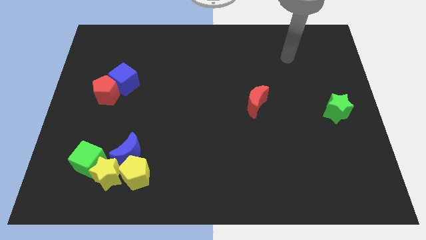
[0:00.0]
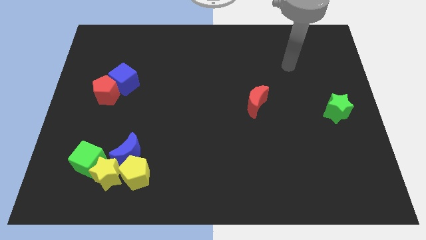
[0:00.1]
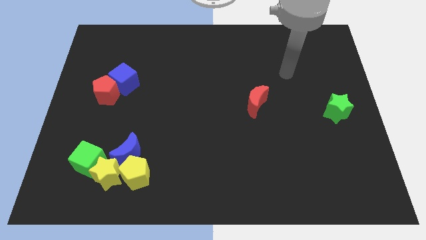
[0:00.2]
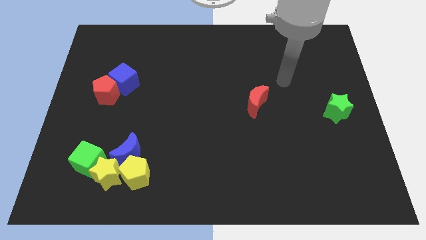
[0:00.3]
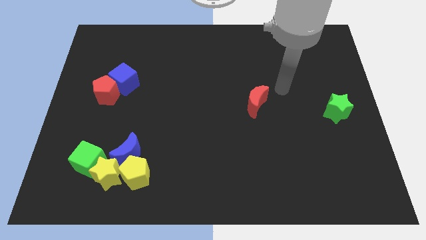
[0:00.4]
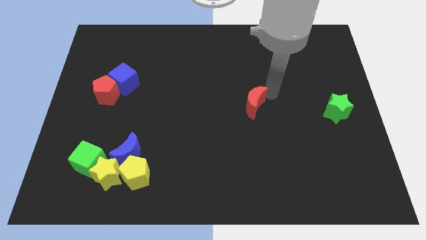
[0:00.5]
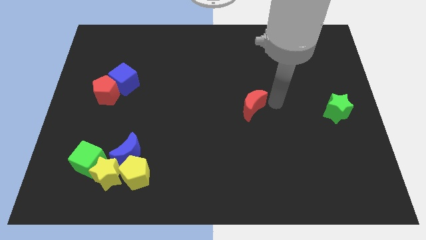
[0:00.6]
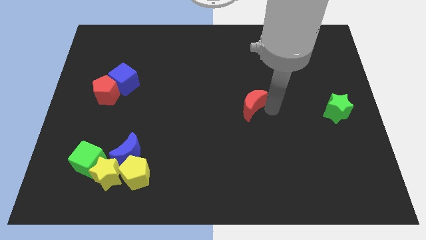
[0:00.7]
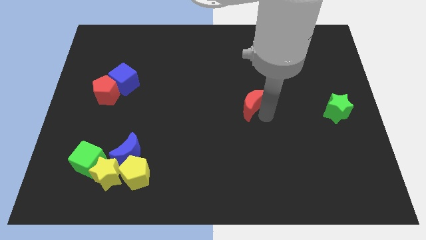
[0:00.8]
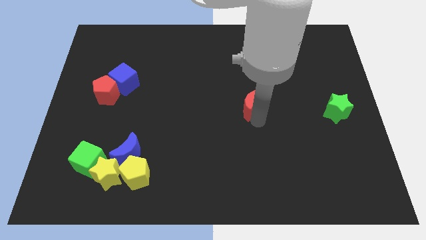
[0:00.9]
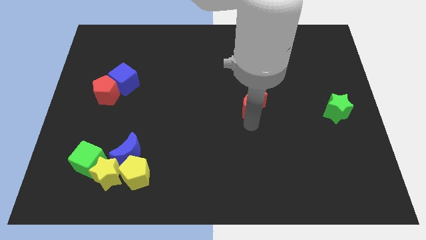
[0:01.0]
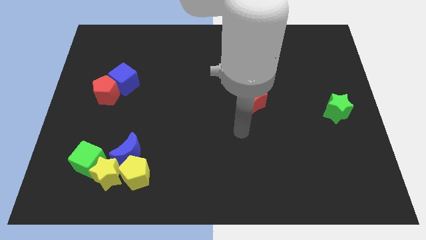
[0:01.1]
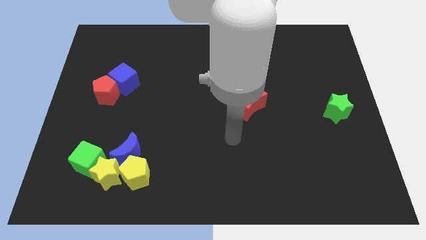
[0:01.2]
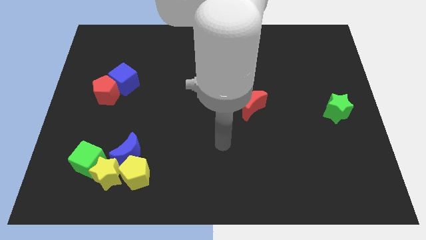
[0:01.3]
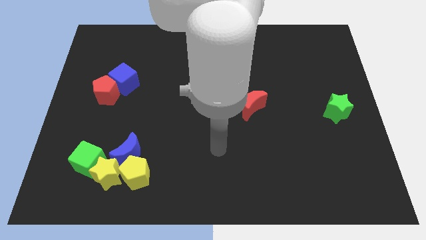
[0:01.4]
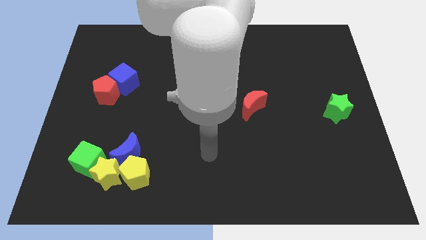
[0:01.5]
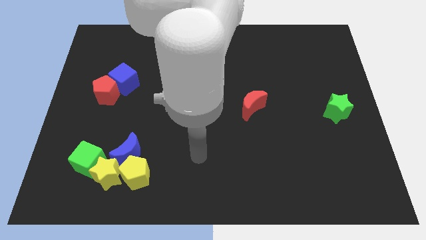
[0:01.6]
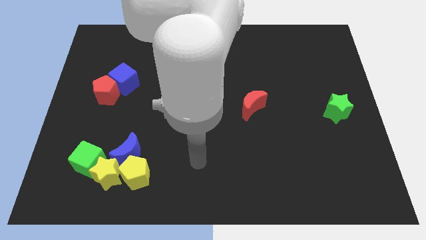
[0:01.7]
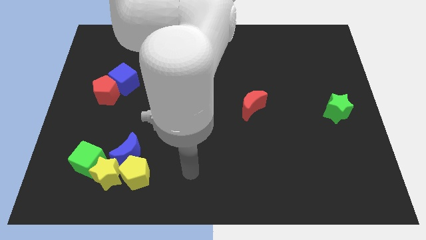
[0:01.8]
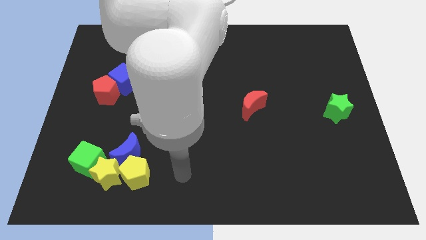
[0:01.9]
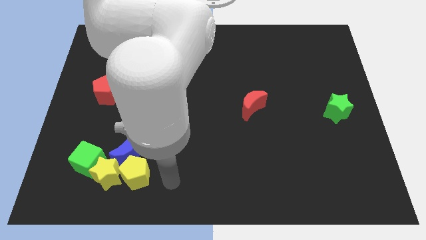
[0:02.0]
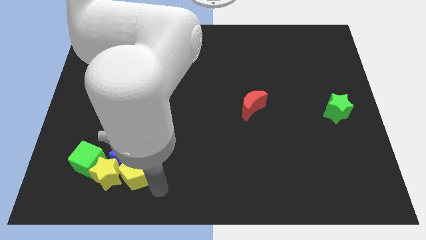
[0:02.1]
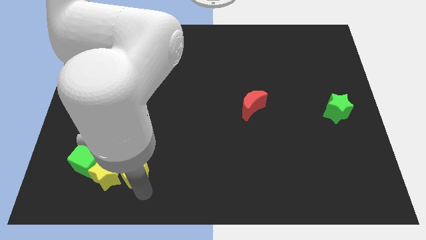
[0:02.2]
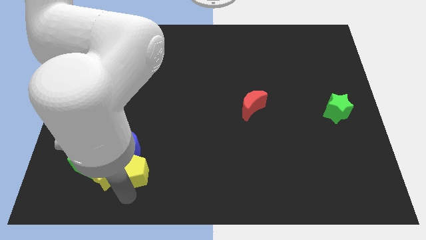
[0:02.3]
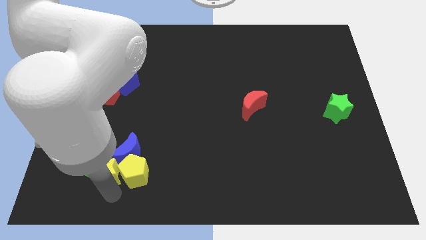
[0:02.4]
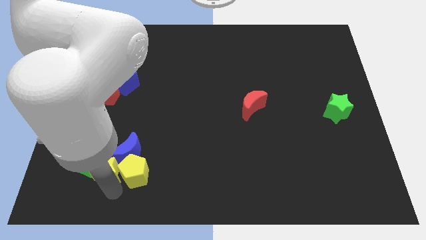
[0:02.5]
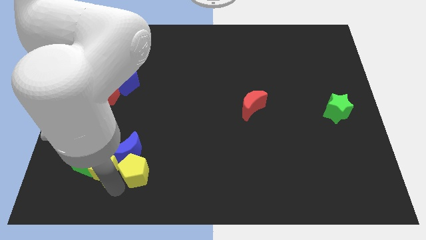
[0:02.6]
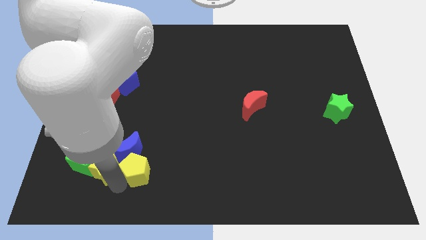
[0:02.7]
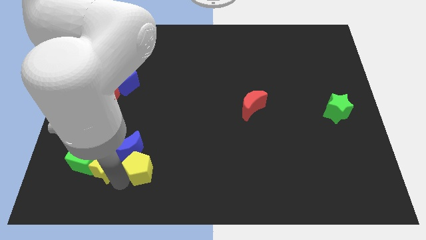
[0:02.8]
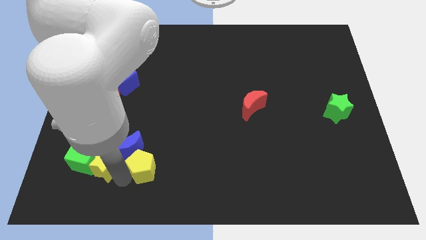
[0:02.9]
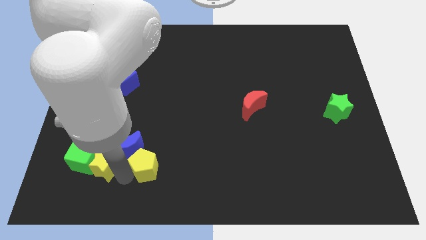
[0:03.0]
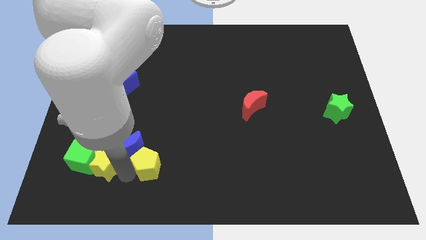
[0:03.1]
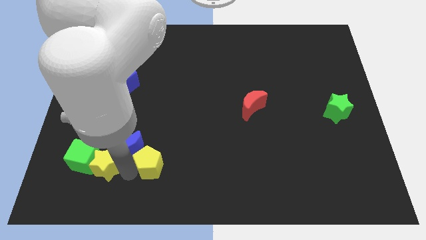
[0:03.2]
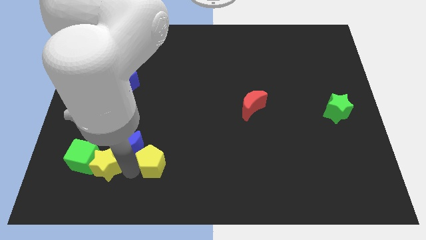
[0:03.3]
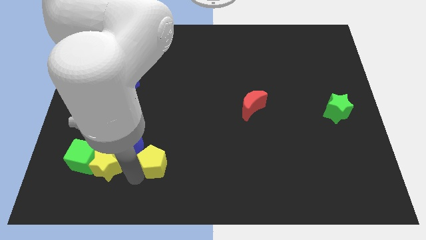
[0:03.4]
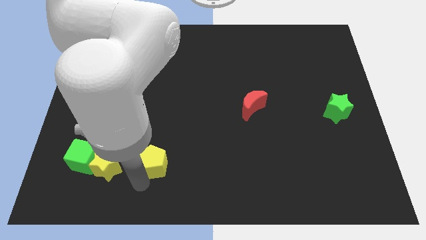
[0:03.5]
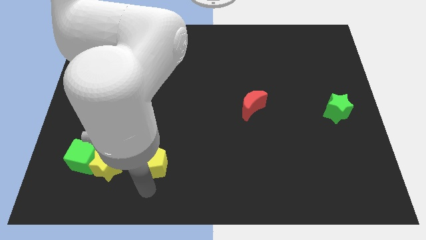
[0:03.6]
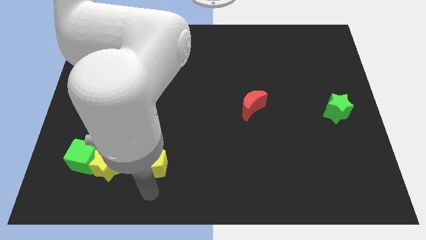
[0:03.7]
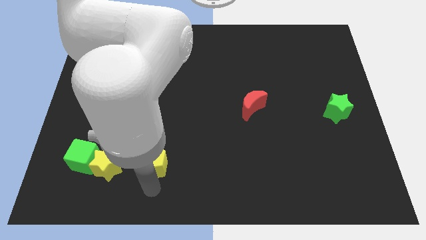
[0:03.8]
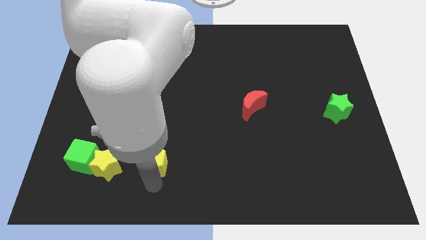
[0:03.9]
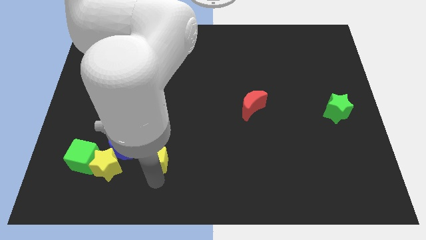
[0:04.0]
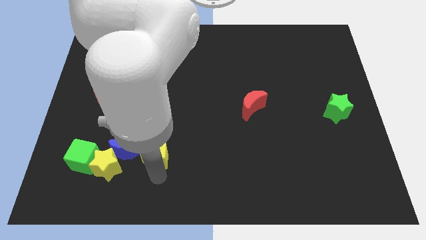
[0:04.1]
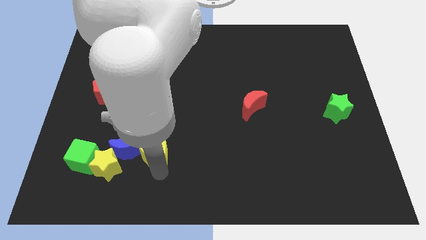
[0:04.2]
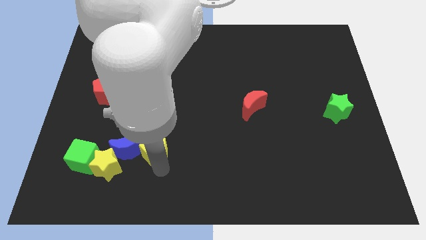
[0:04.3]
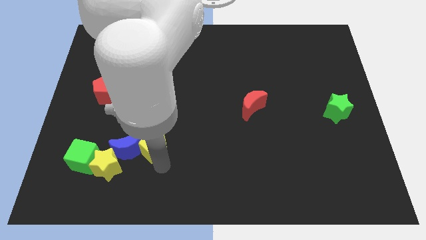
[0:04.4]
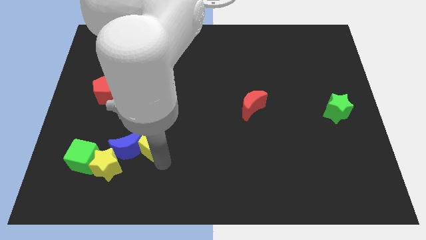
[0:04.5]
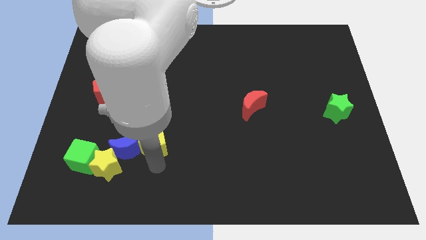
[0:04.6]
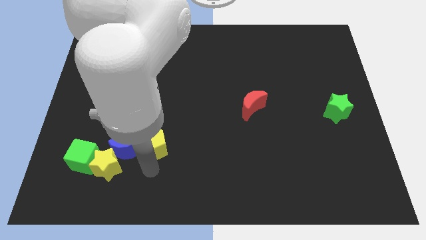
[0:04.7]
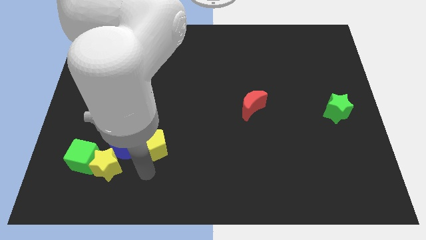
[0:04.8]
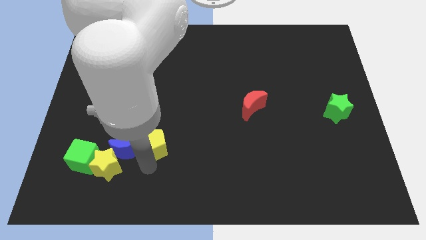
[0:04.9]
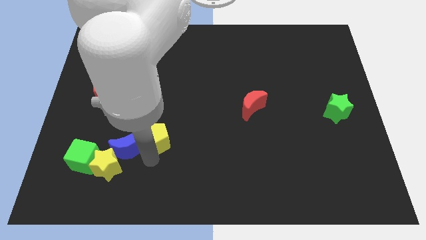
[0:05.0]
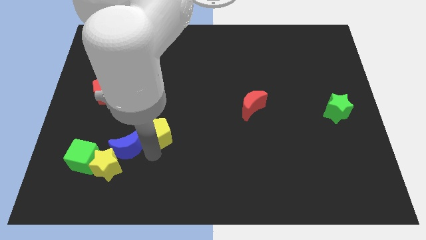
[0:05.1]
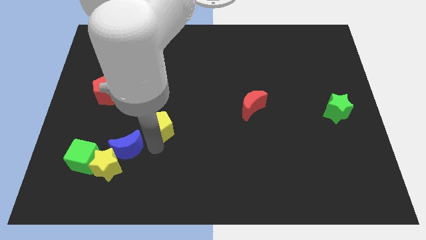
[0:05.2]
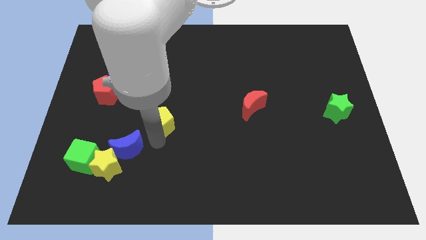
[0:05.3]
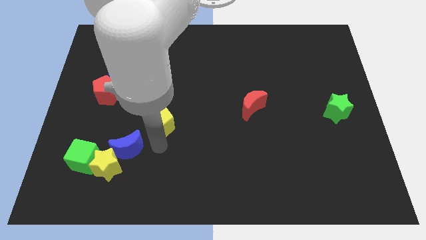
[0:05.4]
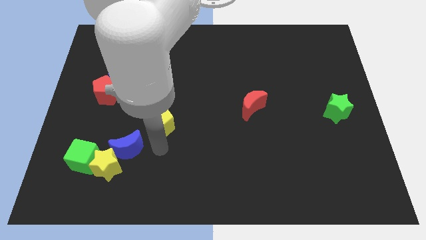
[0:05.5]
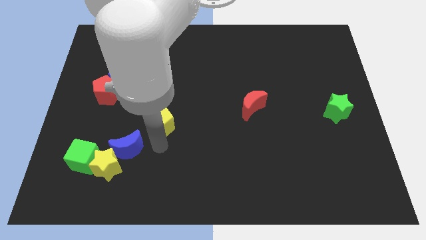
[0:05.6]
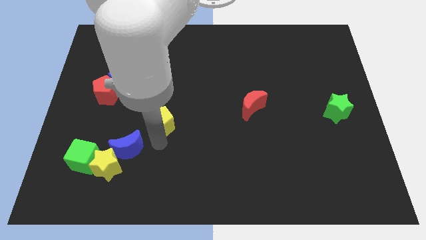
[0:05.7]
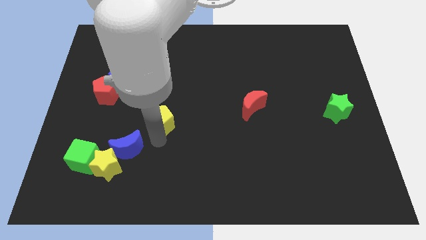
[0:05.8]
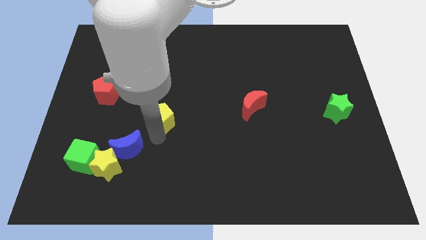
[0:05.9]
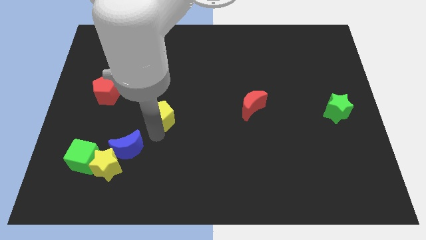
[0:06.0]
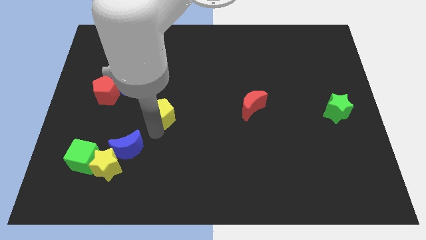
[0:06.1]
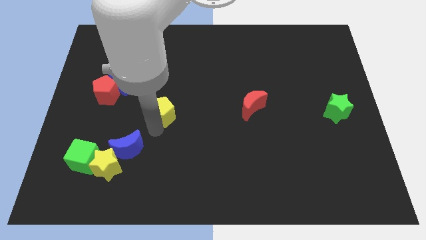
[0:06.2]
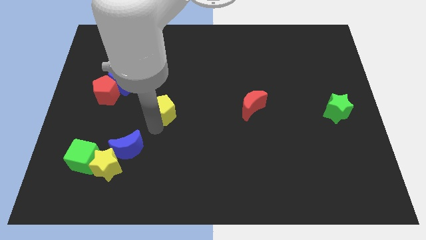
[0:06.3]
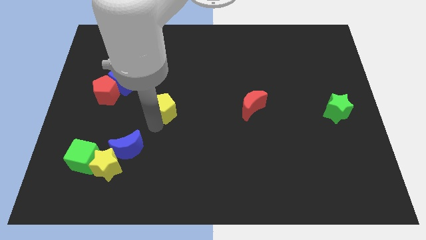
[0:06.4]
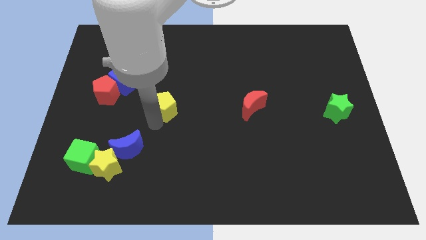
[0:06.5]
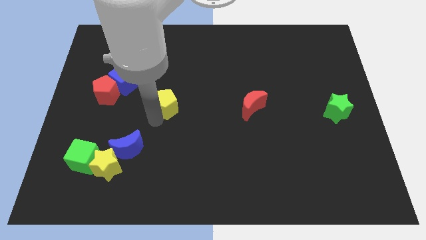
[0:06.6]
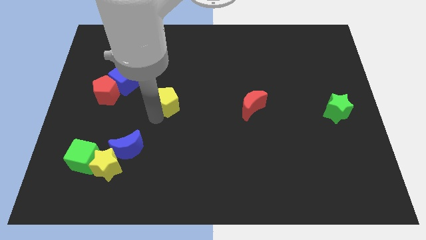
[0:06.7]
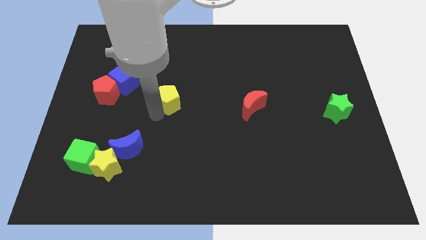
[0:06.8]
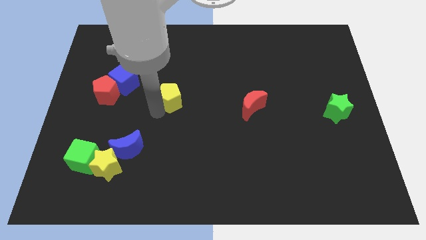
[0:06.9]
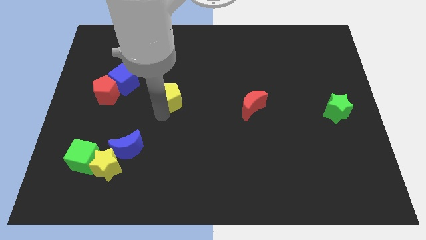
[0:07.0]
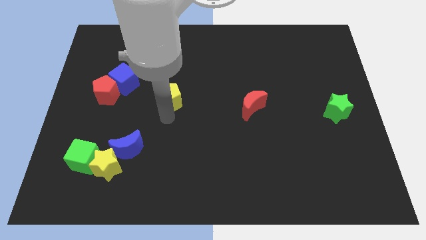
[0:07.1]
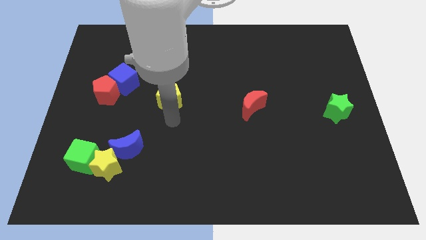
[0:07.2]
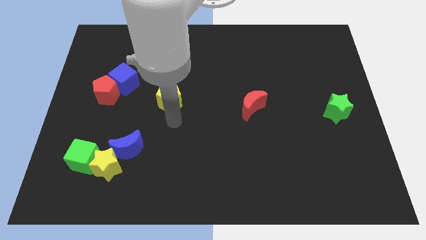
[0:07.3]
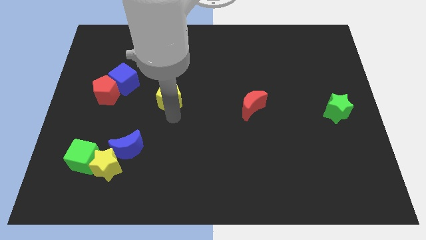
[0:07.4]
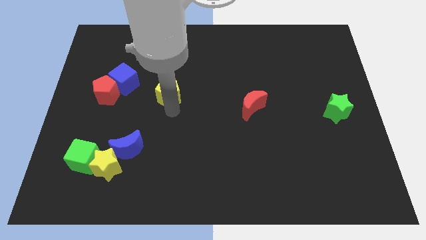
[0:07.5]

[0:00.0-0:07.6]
slide the yellow pentagon right of the blue cube
